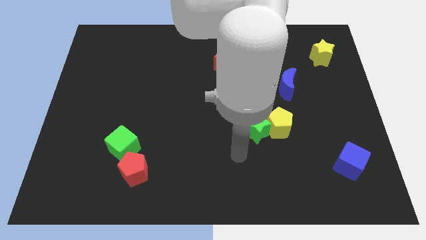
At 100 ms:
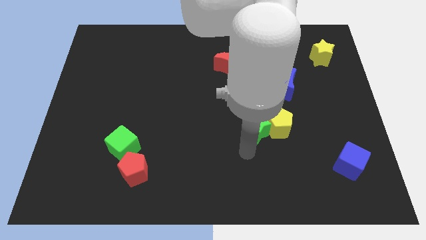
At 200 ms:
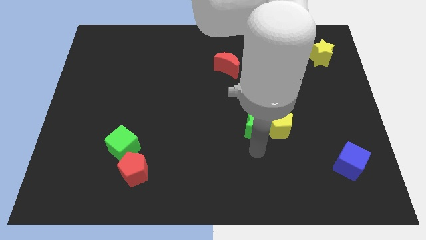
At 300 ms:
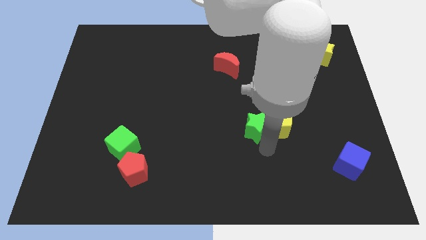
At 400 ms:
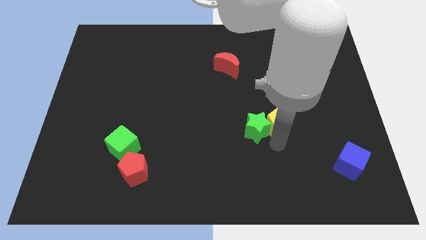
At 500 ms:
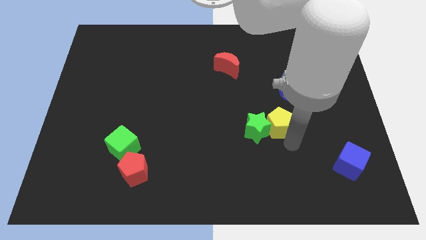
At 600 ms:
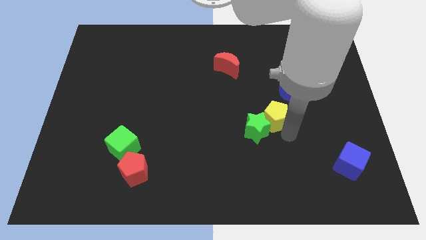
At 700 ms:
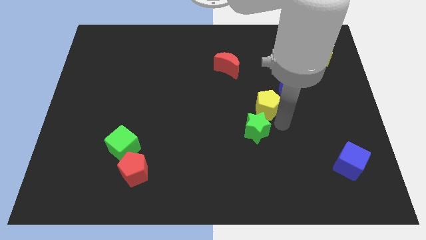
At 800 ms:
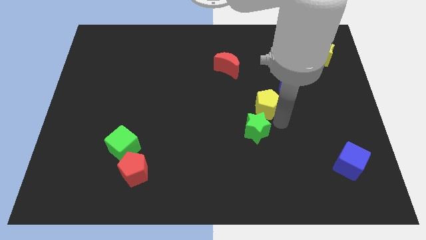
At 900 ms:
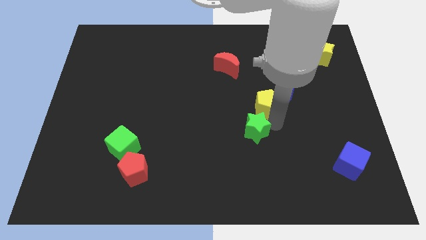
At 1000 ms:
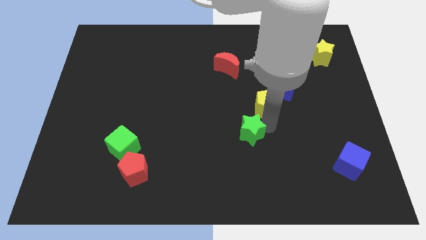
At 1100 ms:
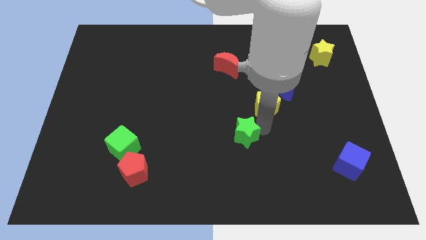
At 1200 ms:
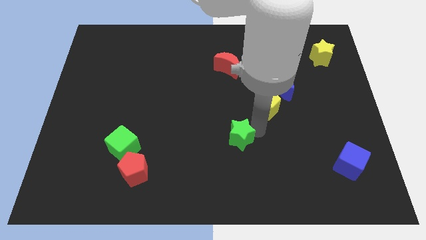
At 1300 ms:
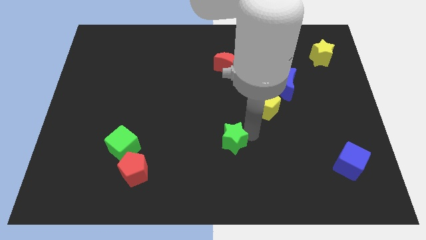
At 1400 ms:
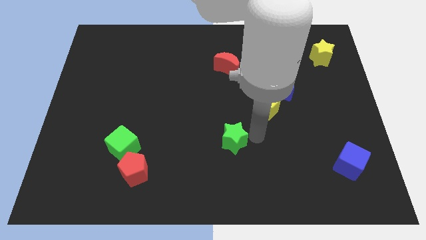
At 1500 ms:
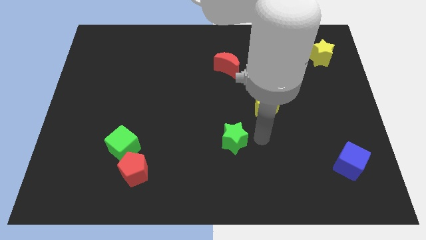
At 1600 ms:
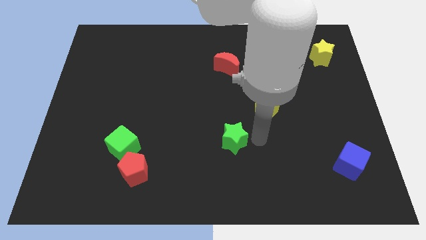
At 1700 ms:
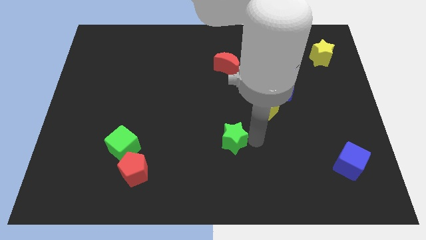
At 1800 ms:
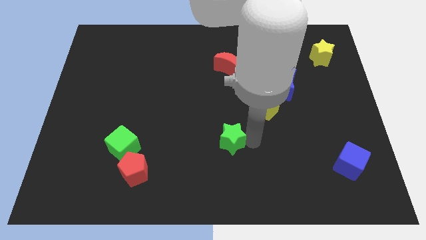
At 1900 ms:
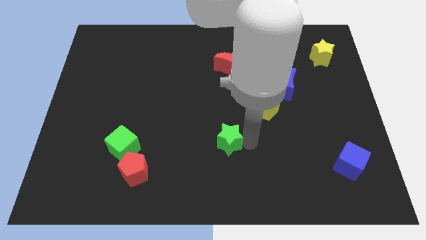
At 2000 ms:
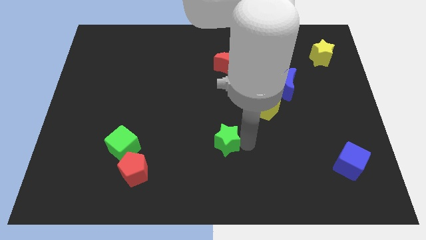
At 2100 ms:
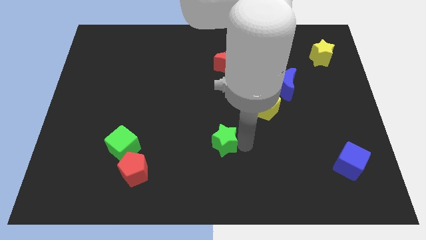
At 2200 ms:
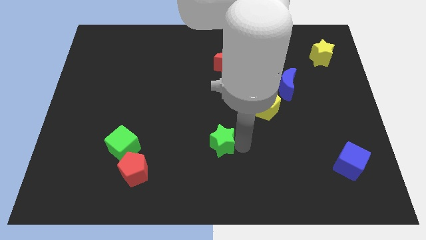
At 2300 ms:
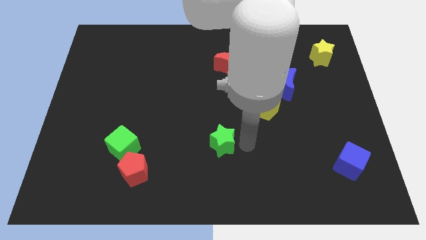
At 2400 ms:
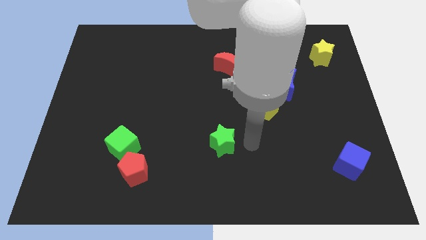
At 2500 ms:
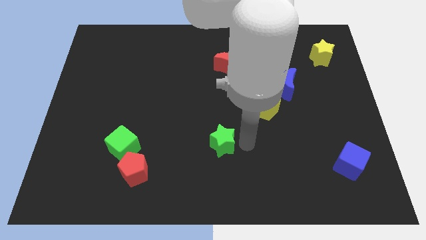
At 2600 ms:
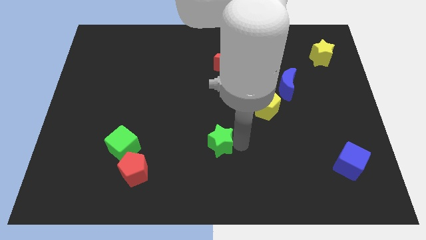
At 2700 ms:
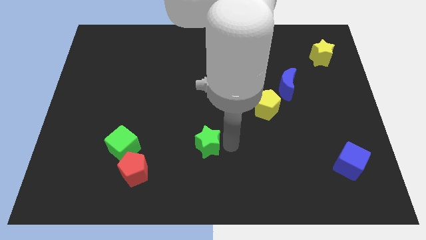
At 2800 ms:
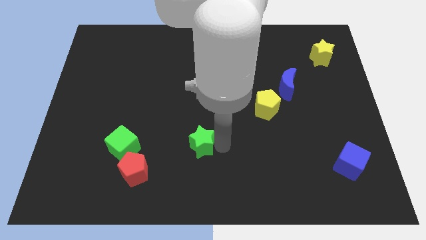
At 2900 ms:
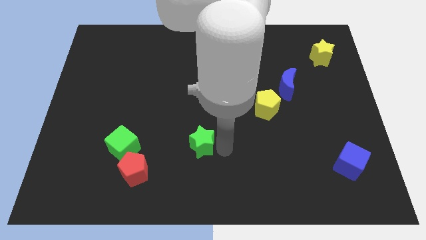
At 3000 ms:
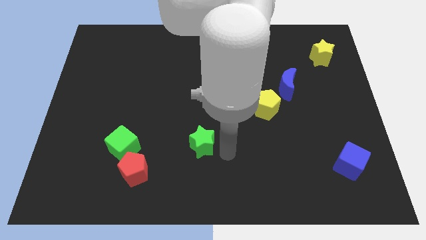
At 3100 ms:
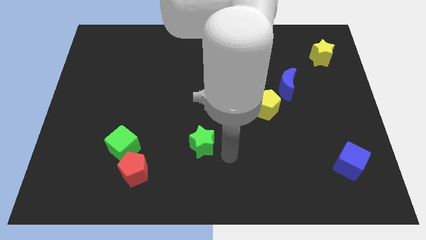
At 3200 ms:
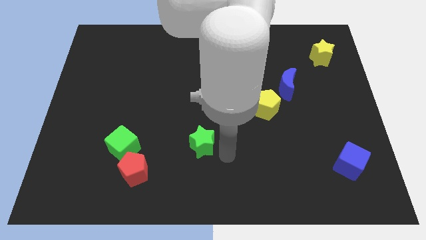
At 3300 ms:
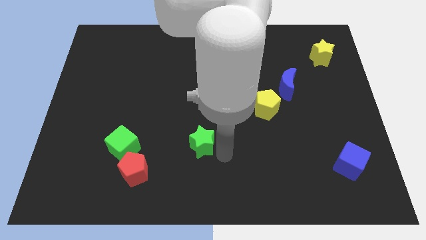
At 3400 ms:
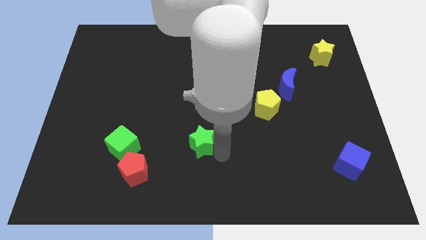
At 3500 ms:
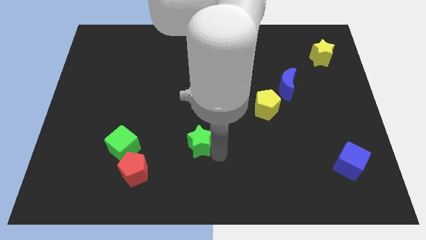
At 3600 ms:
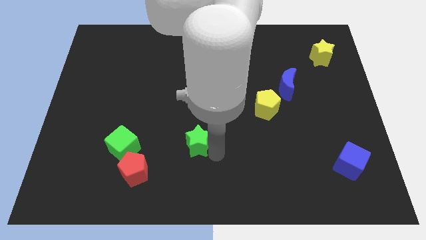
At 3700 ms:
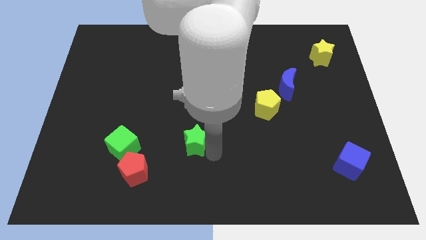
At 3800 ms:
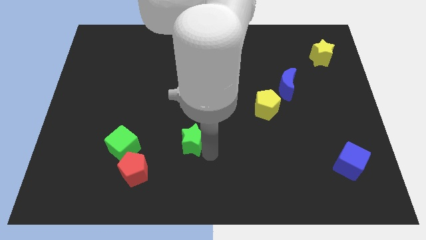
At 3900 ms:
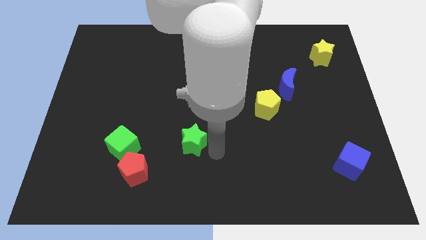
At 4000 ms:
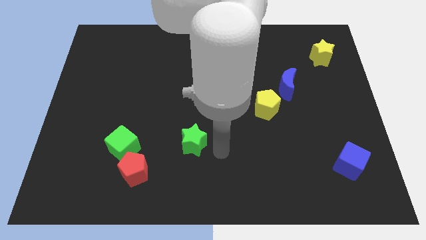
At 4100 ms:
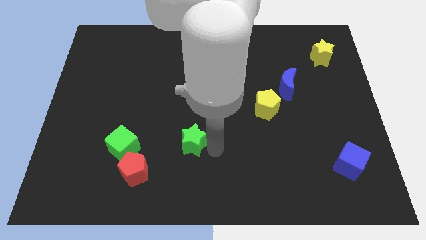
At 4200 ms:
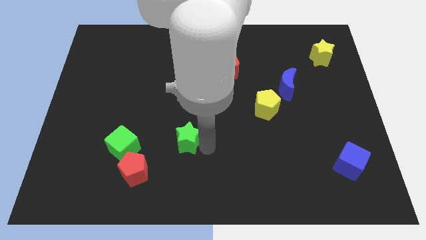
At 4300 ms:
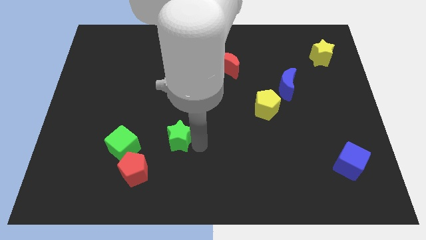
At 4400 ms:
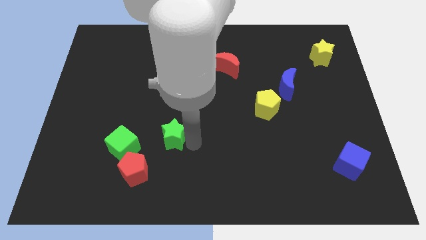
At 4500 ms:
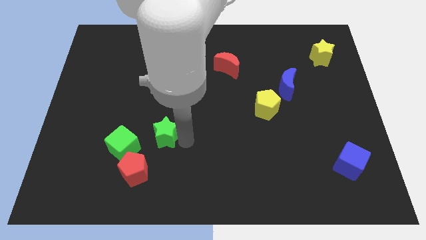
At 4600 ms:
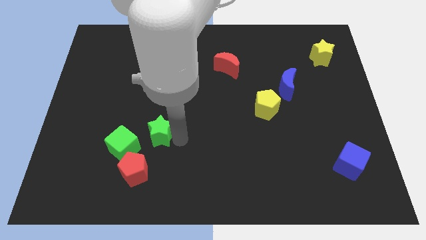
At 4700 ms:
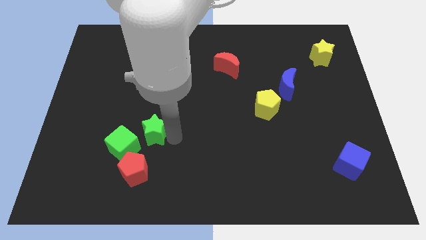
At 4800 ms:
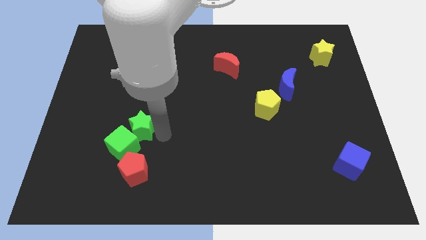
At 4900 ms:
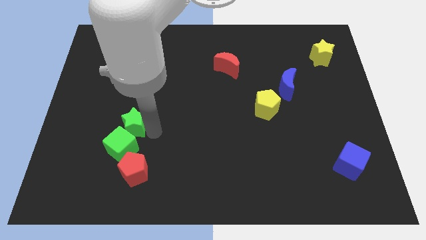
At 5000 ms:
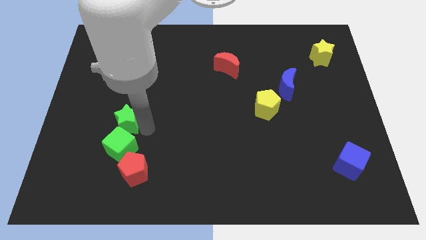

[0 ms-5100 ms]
push the green star diagonally up and to the left of the green cube
